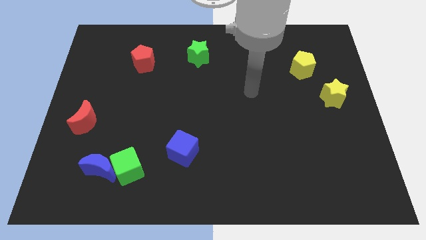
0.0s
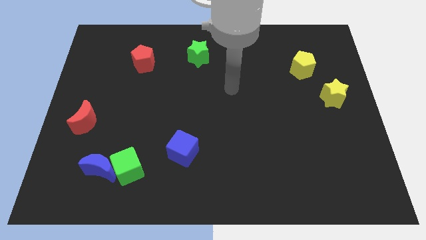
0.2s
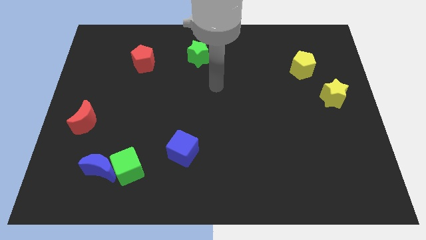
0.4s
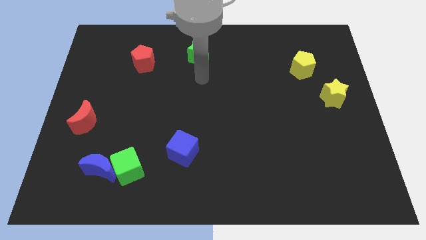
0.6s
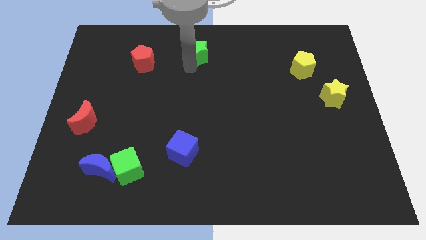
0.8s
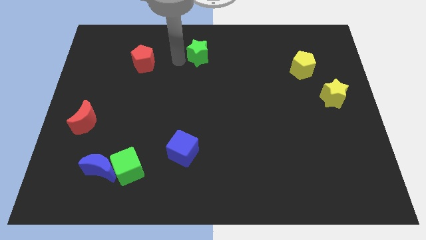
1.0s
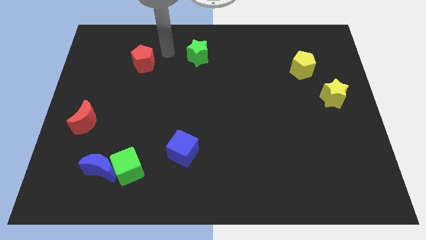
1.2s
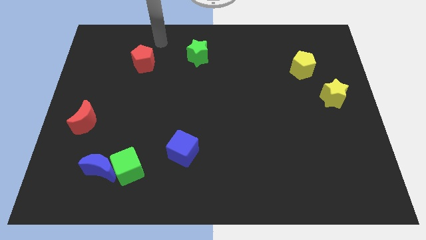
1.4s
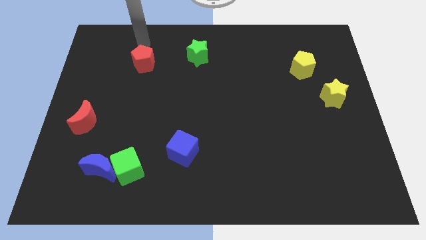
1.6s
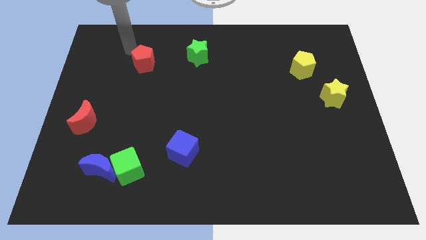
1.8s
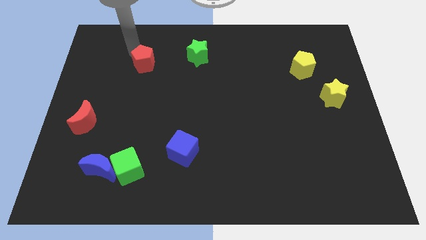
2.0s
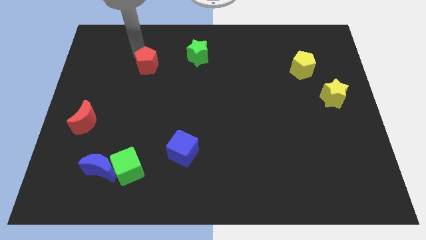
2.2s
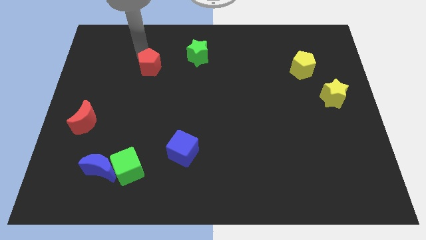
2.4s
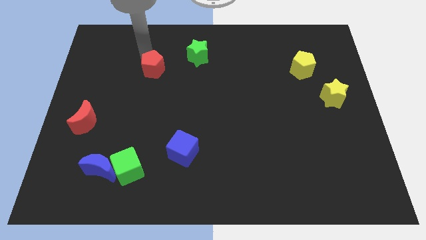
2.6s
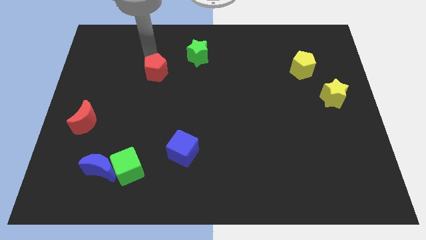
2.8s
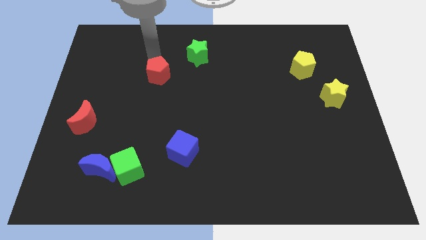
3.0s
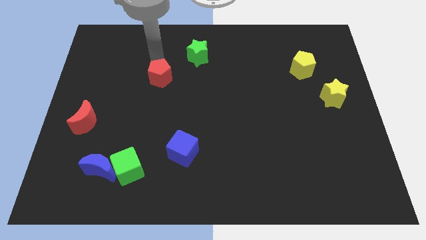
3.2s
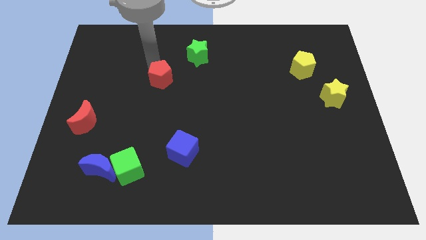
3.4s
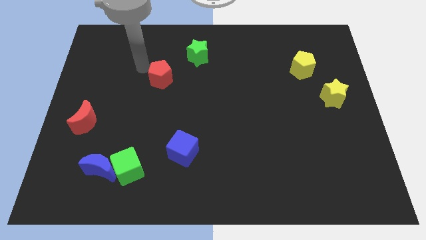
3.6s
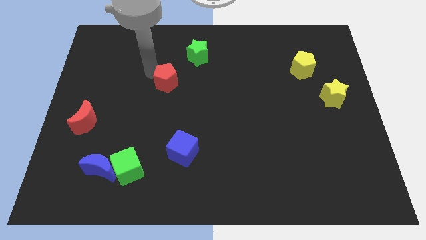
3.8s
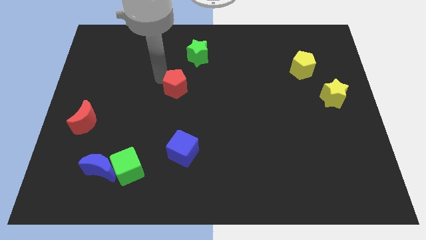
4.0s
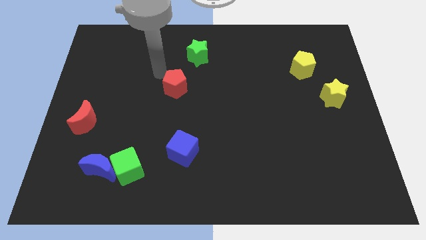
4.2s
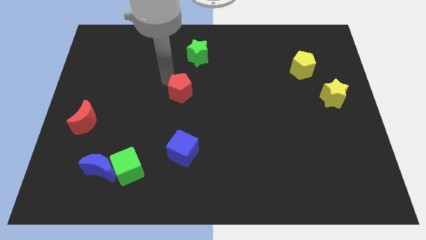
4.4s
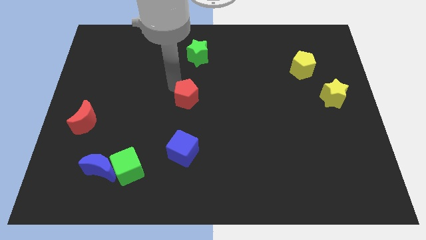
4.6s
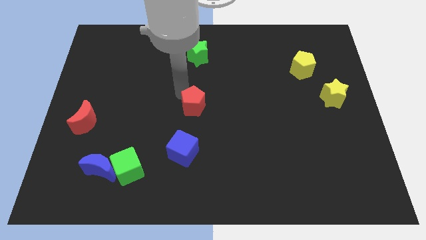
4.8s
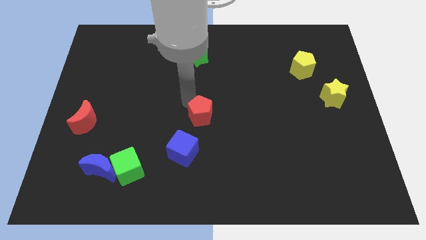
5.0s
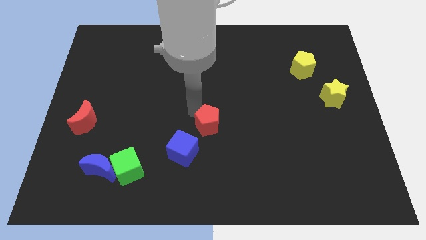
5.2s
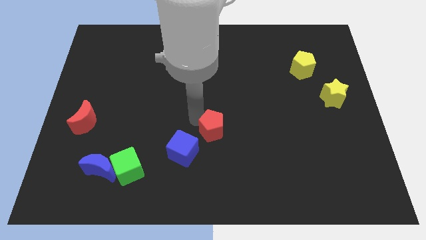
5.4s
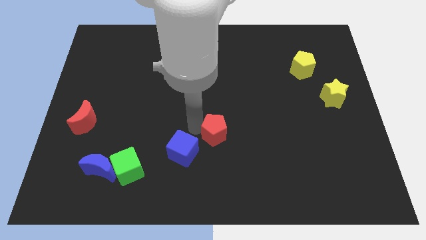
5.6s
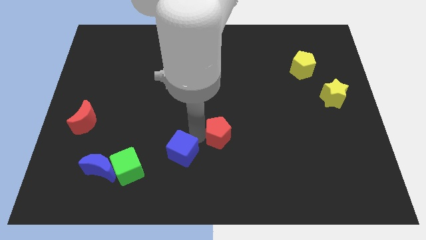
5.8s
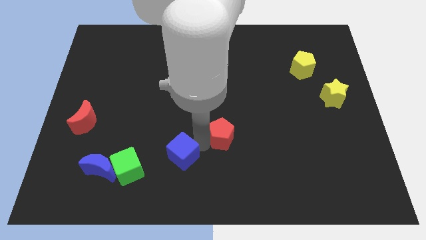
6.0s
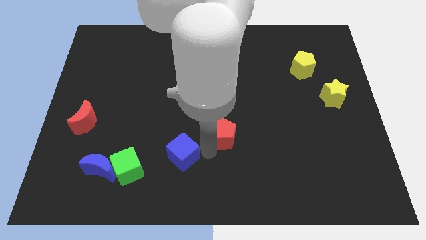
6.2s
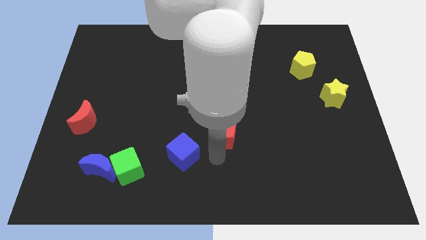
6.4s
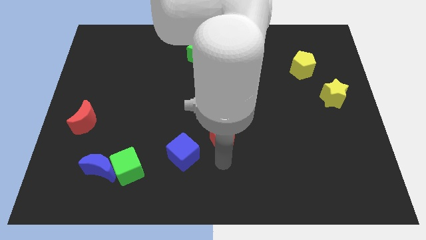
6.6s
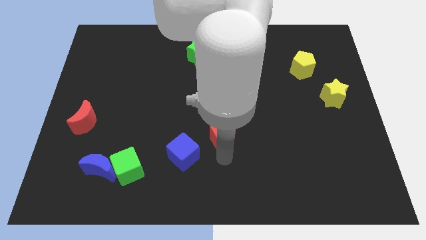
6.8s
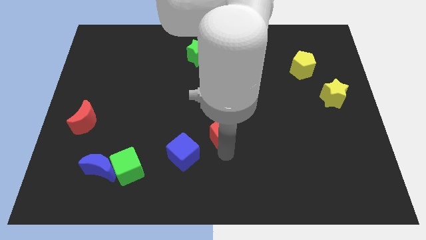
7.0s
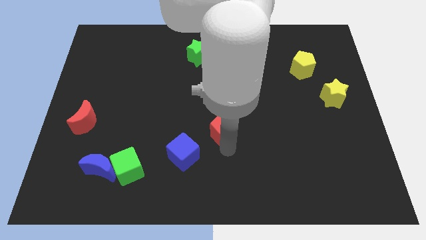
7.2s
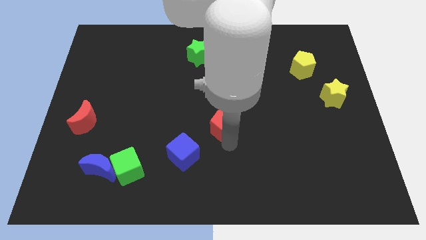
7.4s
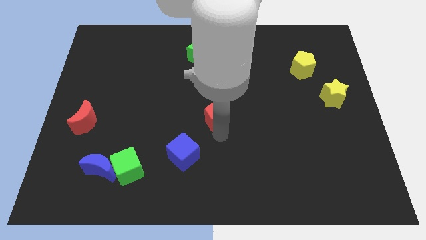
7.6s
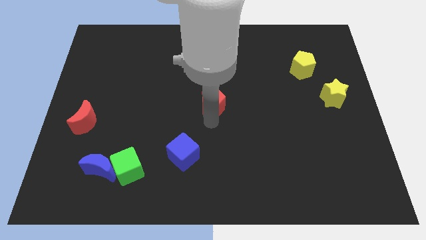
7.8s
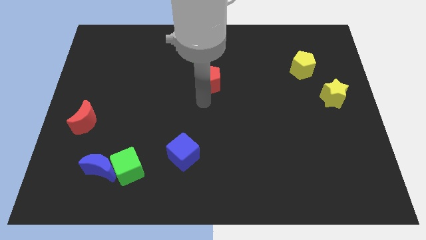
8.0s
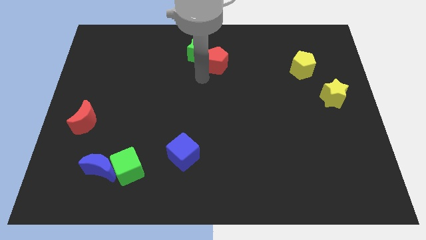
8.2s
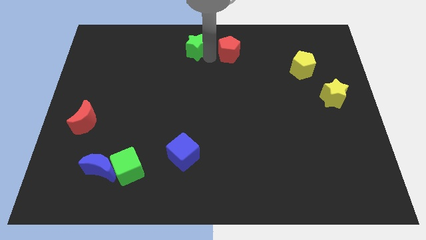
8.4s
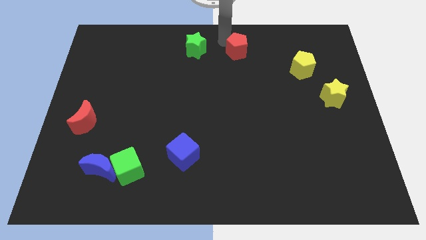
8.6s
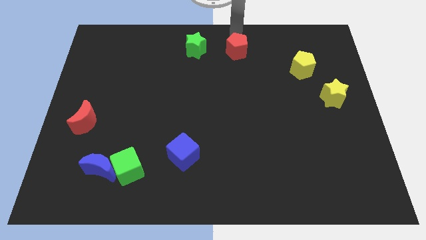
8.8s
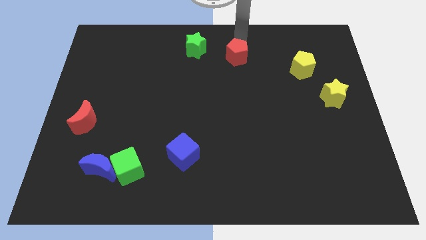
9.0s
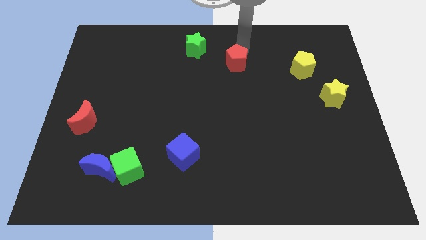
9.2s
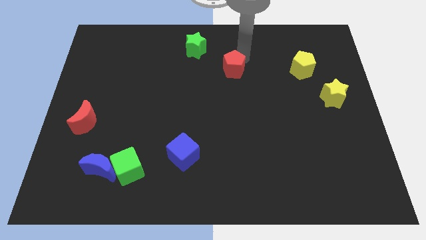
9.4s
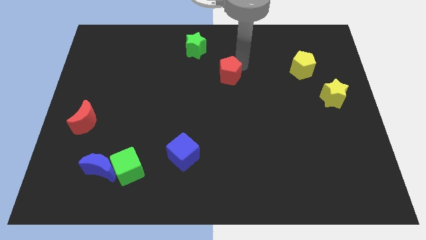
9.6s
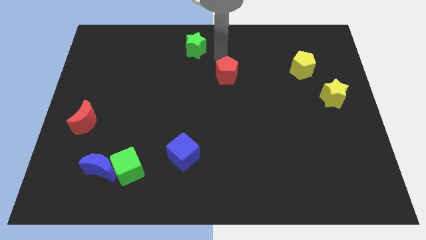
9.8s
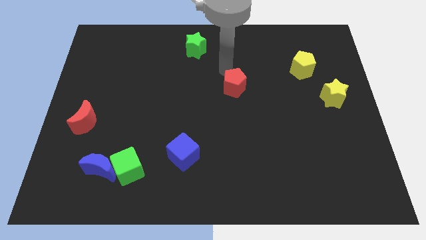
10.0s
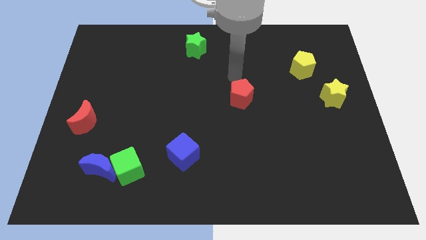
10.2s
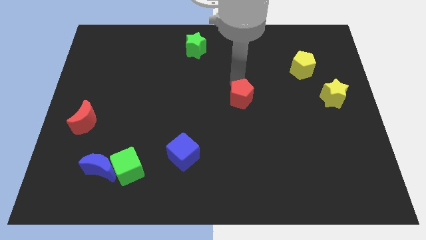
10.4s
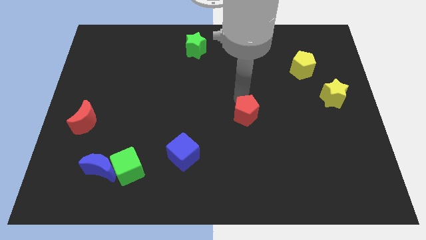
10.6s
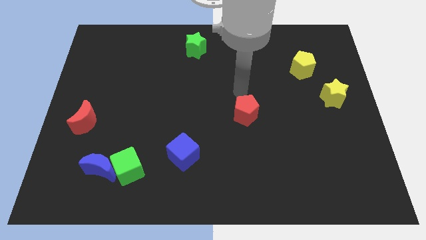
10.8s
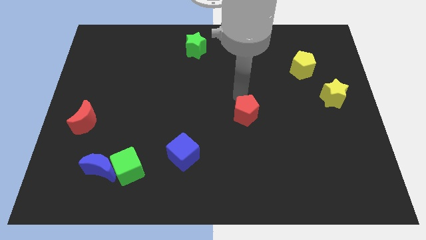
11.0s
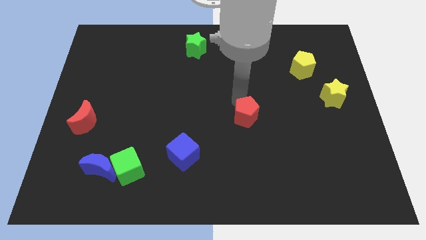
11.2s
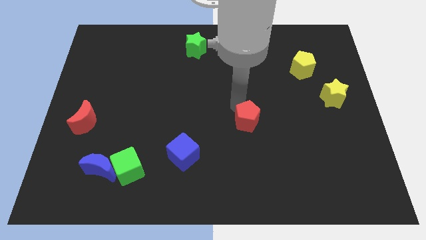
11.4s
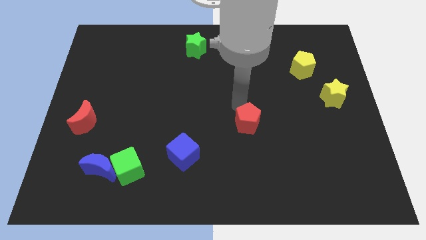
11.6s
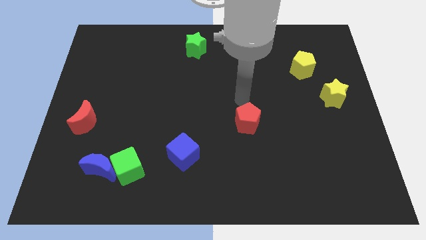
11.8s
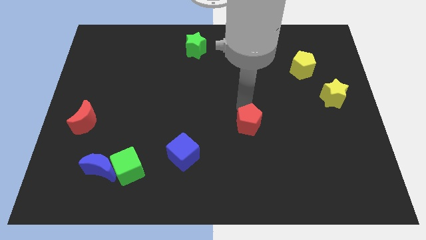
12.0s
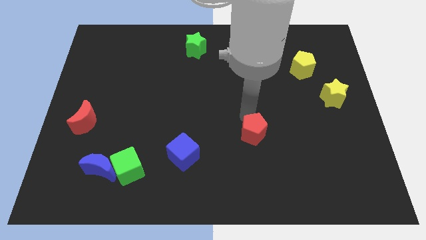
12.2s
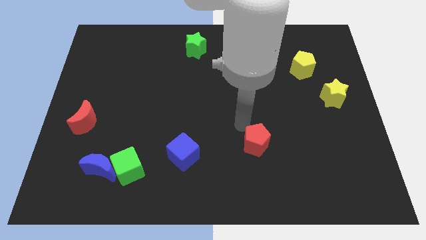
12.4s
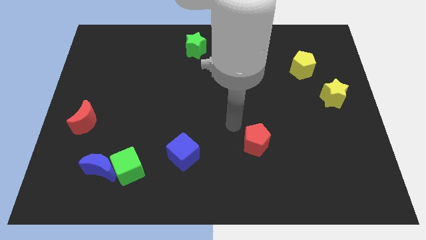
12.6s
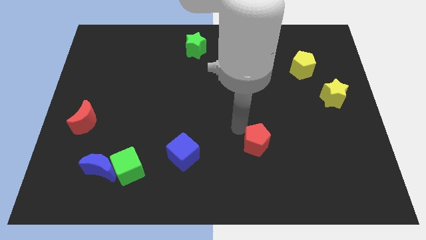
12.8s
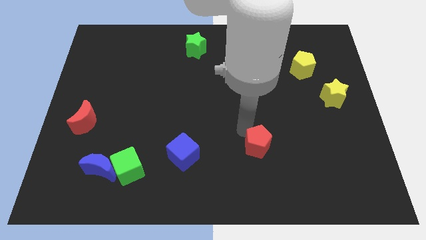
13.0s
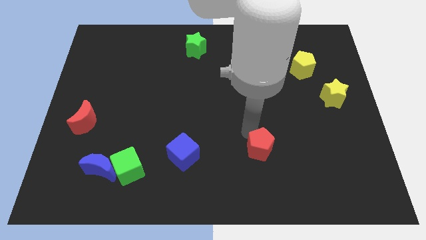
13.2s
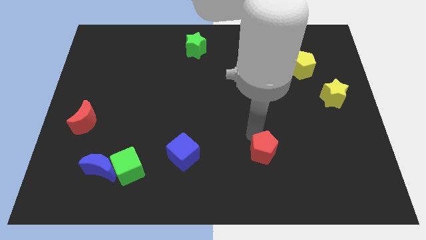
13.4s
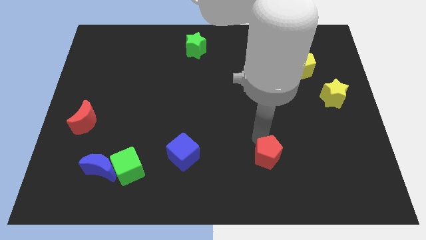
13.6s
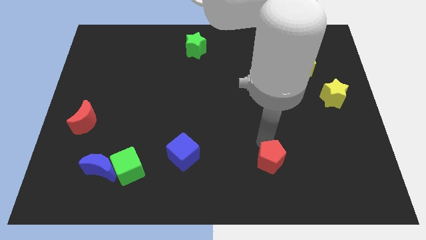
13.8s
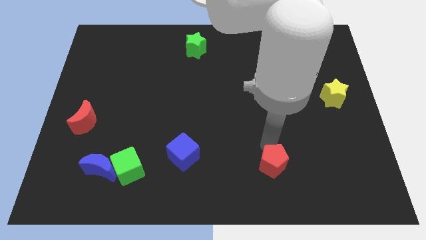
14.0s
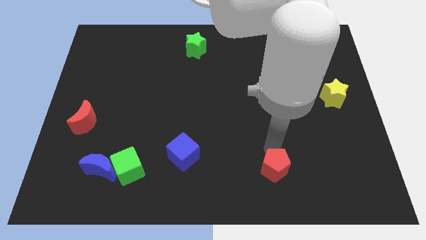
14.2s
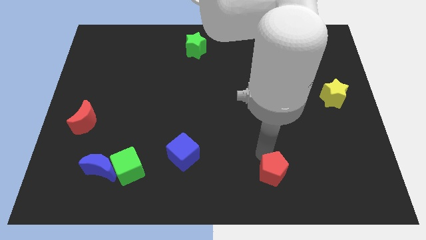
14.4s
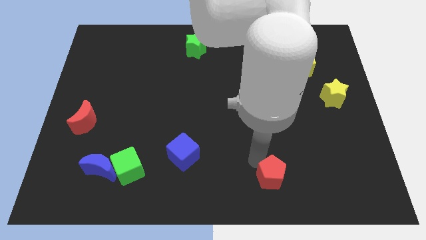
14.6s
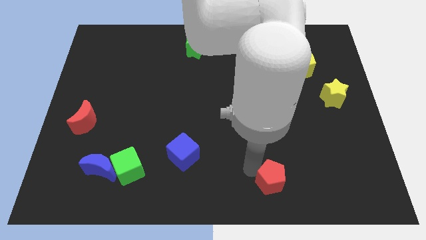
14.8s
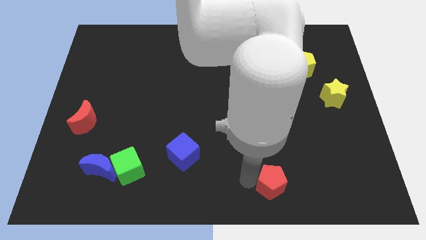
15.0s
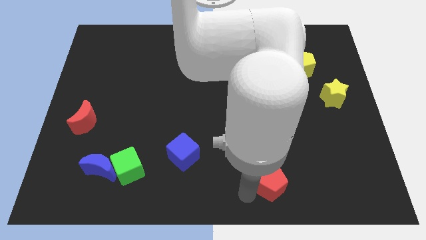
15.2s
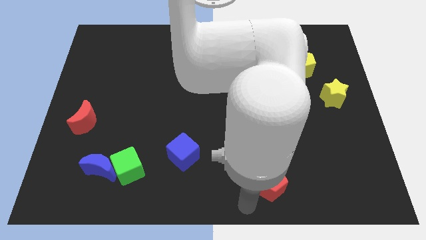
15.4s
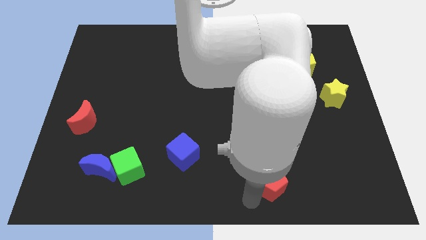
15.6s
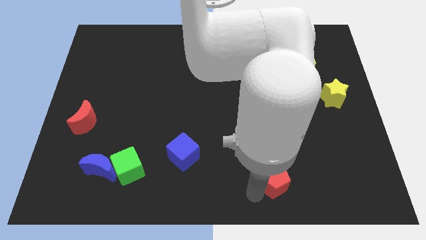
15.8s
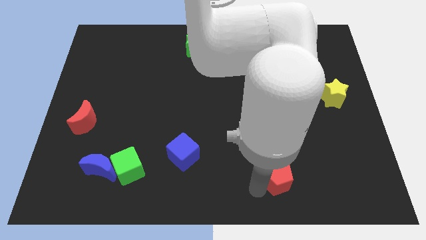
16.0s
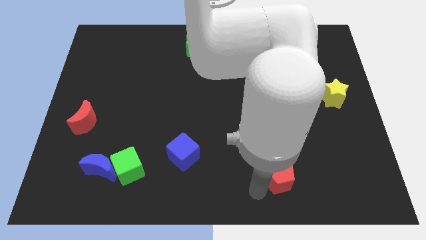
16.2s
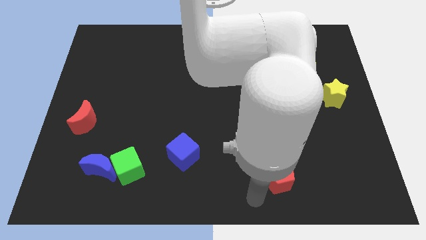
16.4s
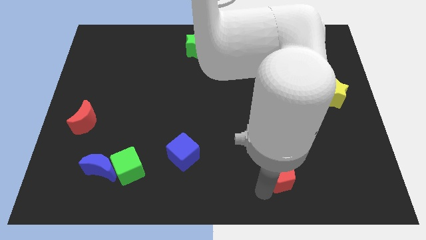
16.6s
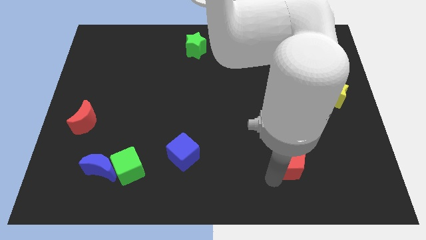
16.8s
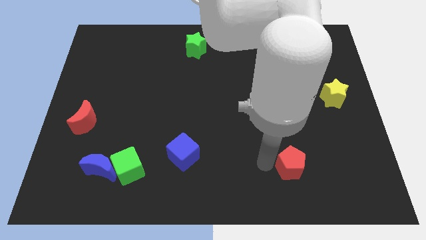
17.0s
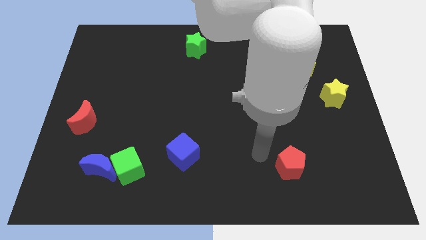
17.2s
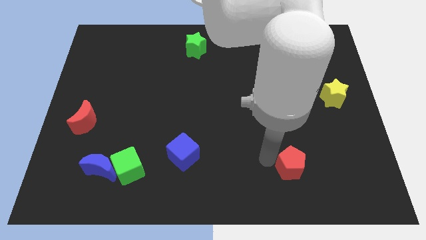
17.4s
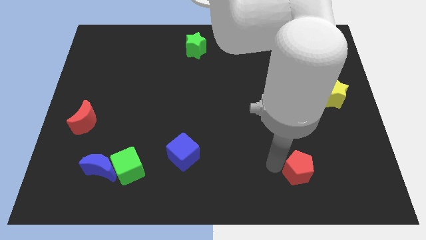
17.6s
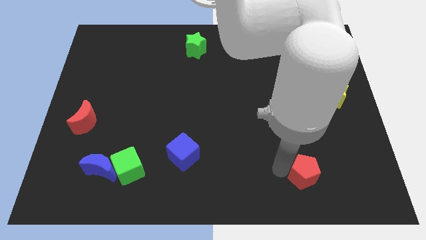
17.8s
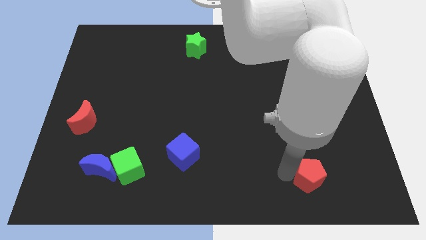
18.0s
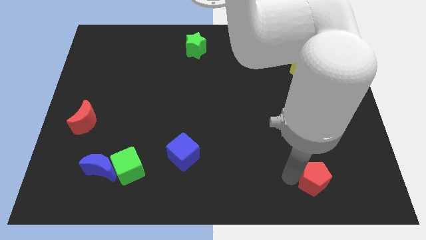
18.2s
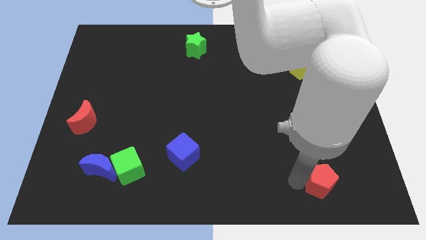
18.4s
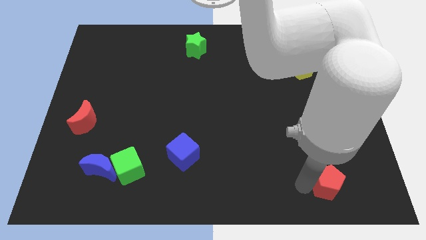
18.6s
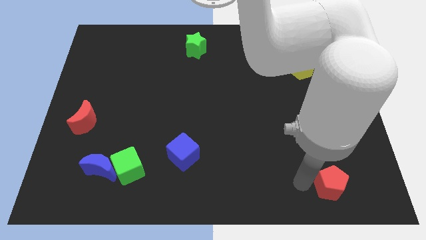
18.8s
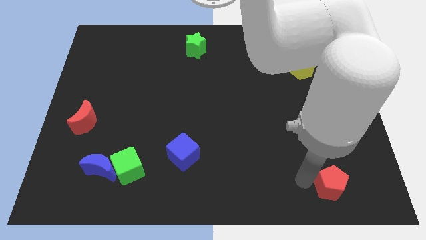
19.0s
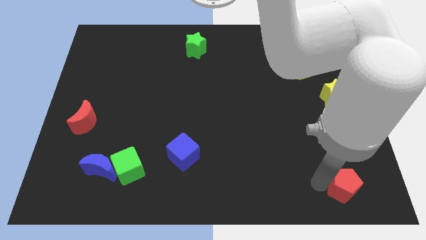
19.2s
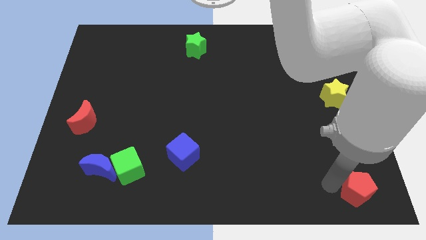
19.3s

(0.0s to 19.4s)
put the red pentagon to the lower right corner
